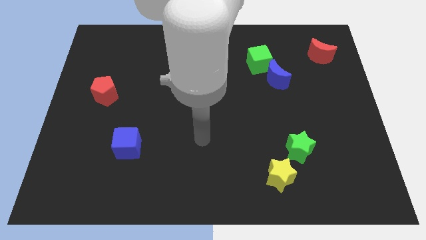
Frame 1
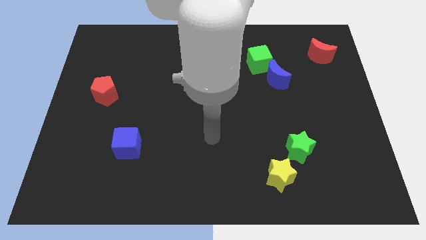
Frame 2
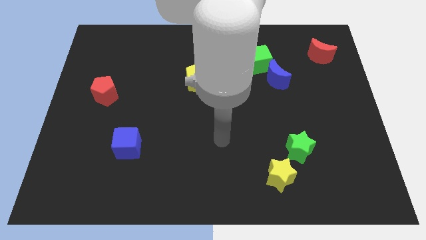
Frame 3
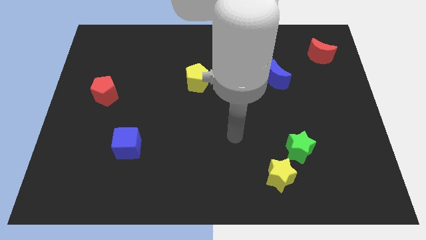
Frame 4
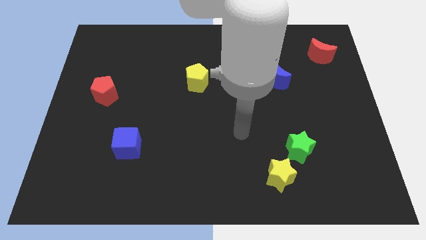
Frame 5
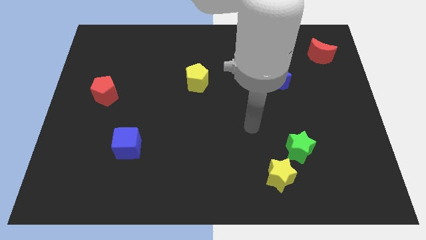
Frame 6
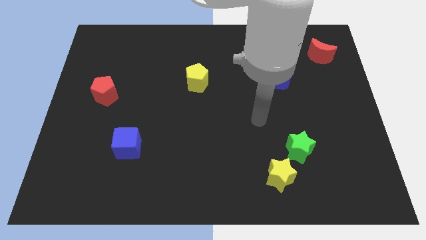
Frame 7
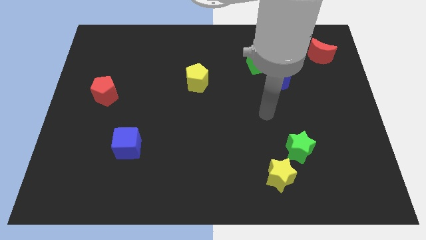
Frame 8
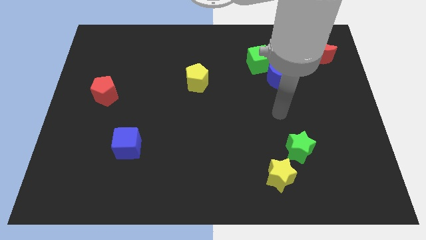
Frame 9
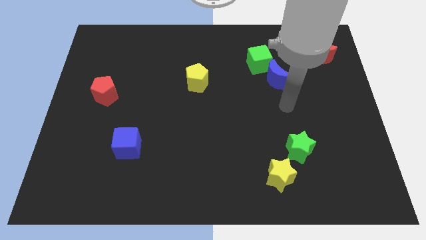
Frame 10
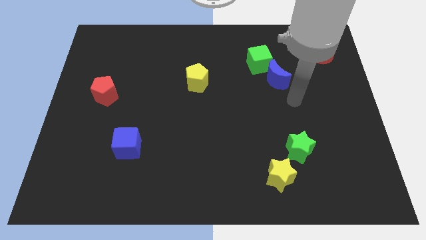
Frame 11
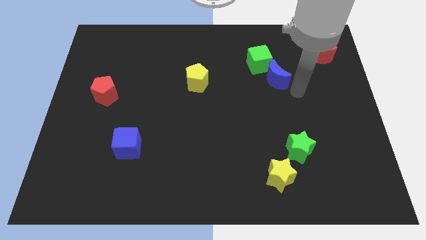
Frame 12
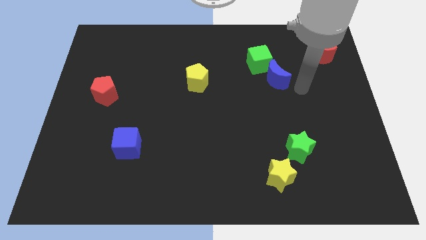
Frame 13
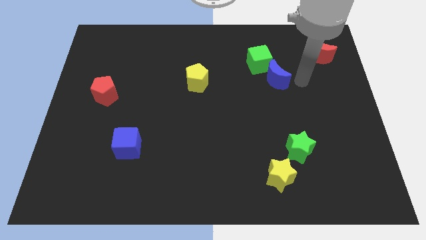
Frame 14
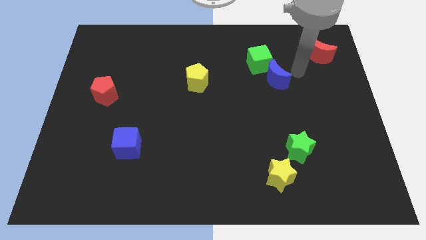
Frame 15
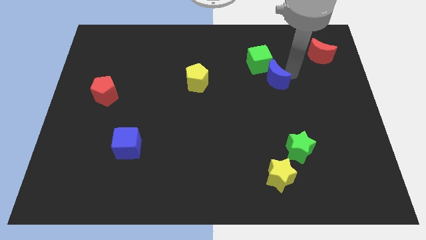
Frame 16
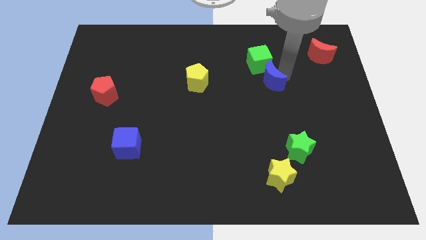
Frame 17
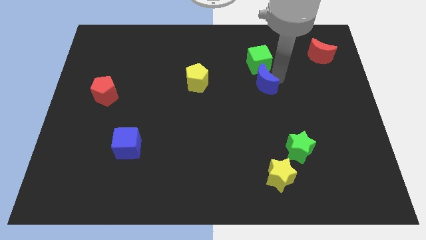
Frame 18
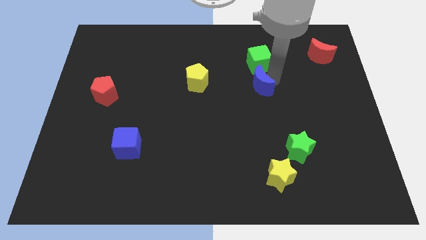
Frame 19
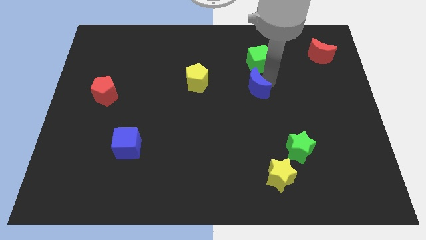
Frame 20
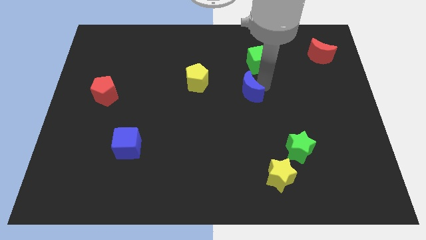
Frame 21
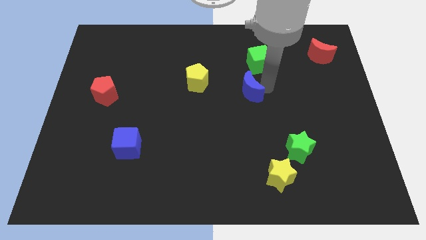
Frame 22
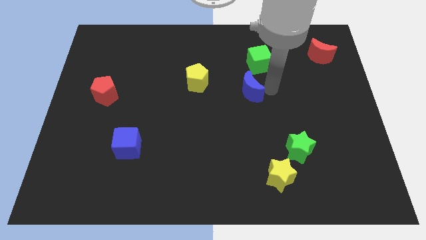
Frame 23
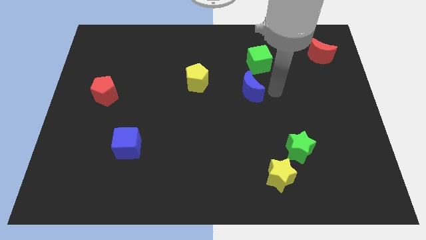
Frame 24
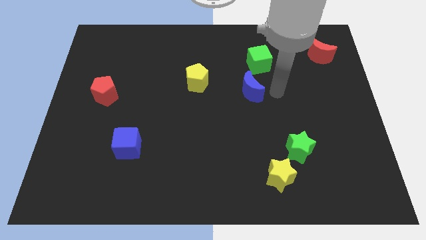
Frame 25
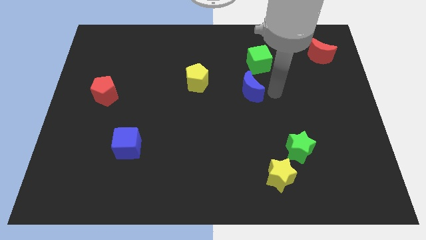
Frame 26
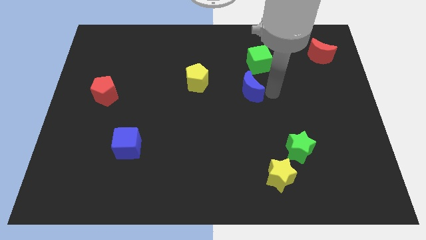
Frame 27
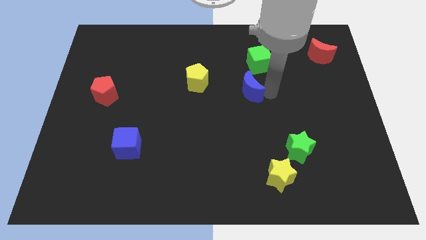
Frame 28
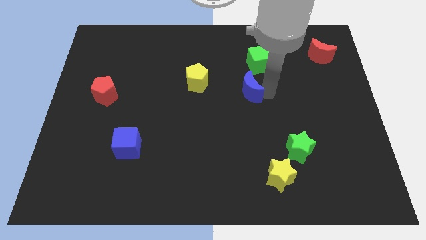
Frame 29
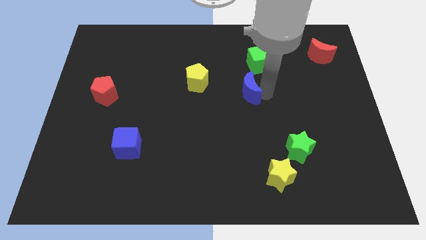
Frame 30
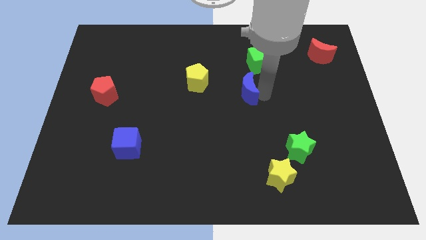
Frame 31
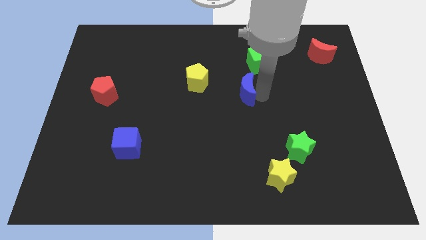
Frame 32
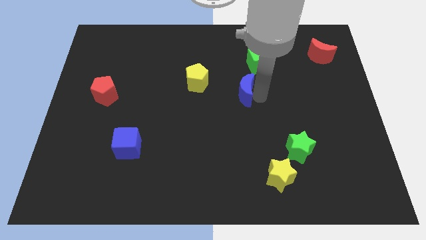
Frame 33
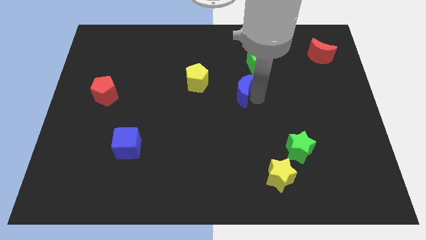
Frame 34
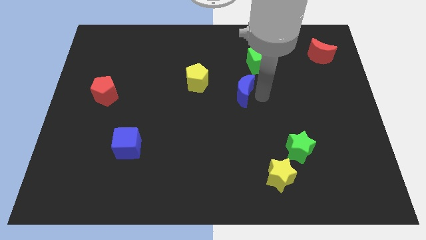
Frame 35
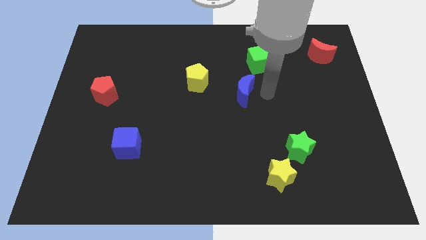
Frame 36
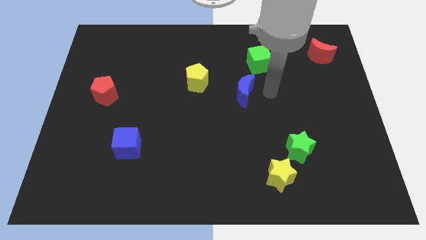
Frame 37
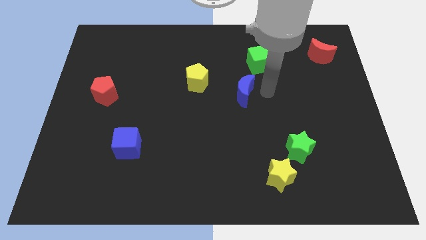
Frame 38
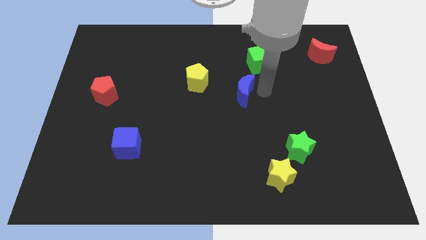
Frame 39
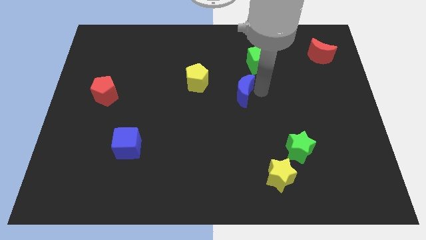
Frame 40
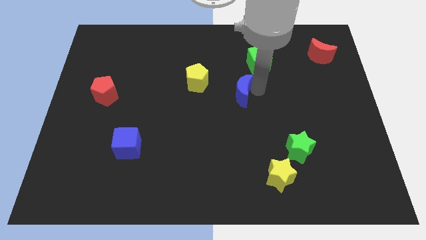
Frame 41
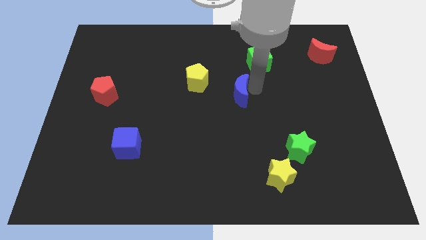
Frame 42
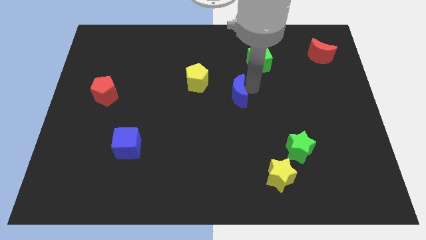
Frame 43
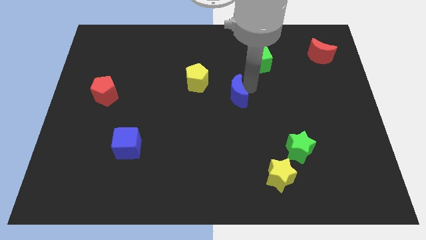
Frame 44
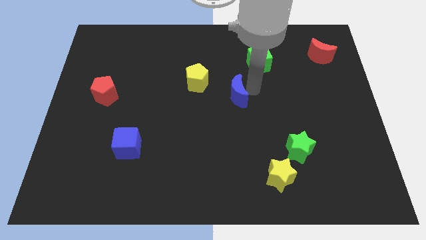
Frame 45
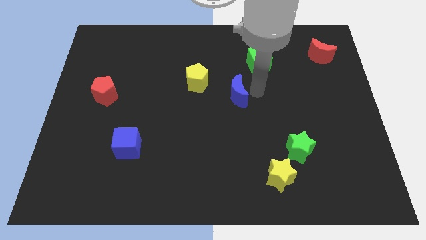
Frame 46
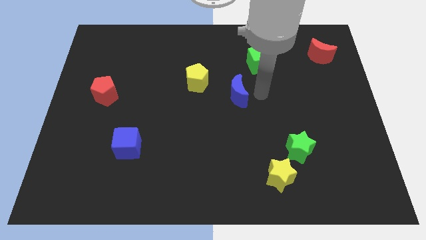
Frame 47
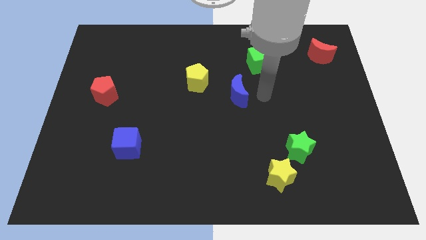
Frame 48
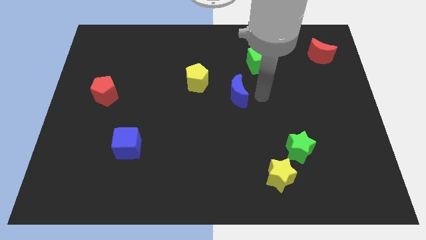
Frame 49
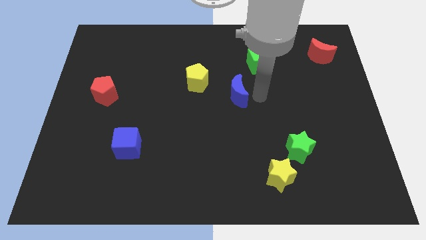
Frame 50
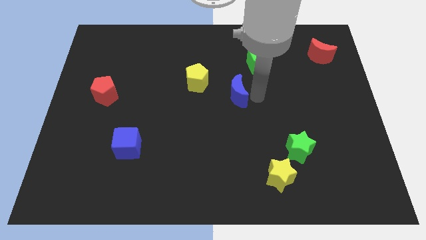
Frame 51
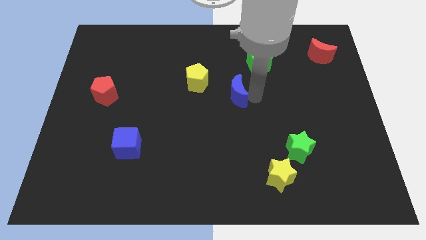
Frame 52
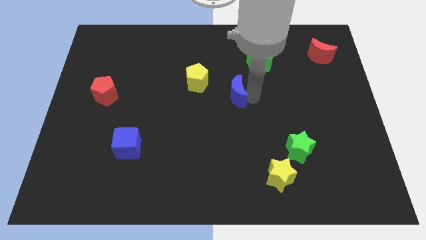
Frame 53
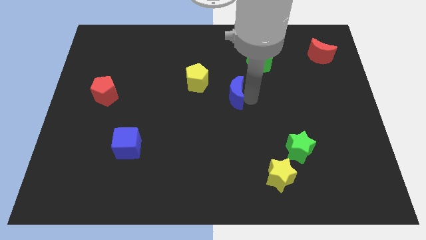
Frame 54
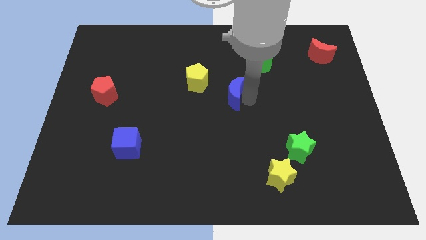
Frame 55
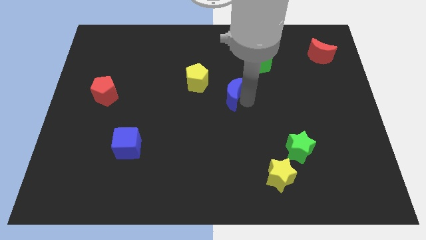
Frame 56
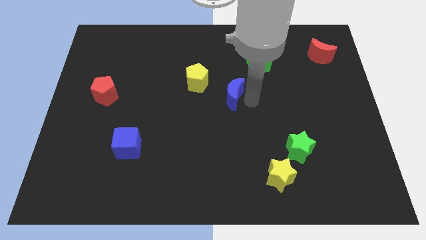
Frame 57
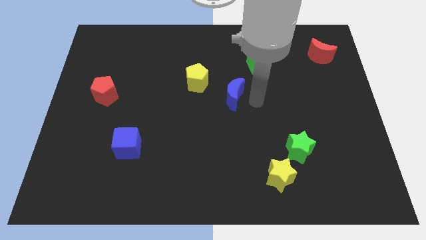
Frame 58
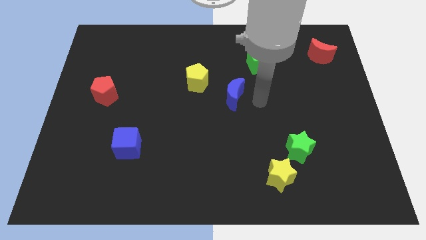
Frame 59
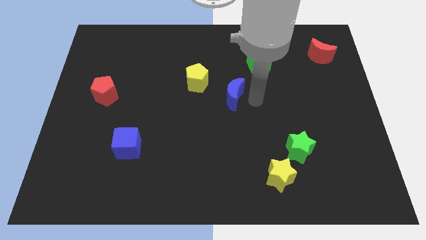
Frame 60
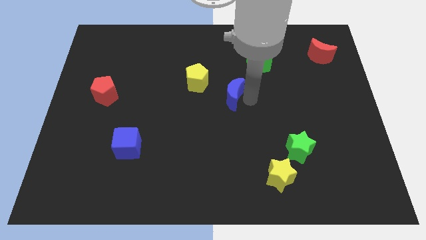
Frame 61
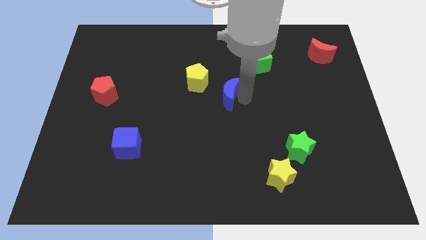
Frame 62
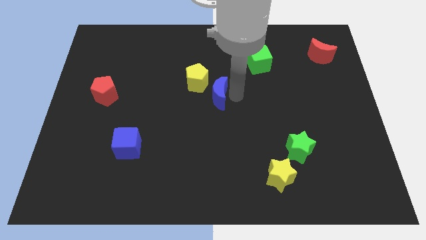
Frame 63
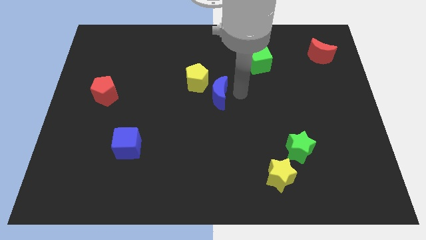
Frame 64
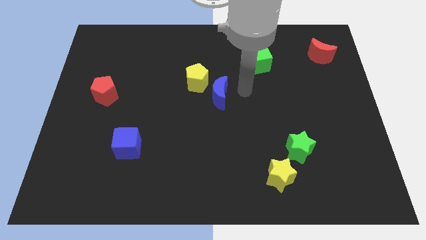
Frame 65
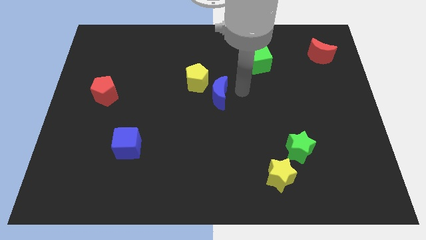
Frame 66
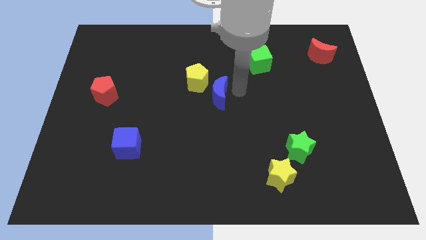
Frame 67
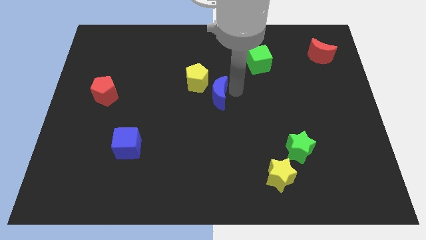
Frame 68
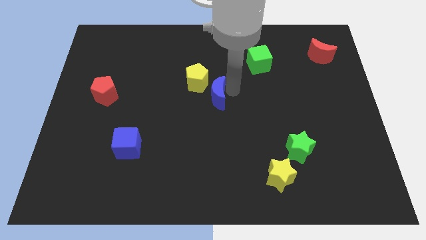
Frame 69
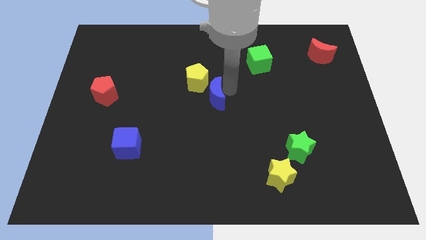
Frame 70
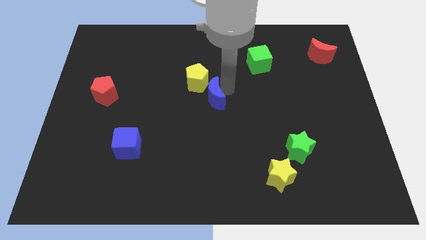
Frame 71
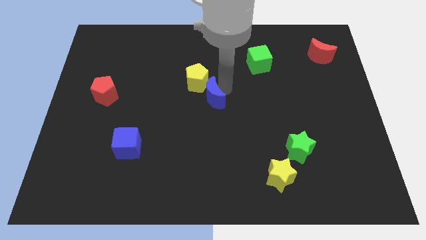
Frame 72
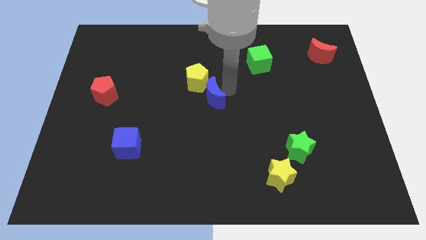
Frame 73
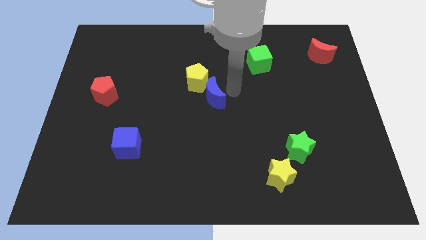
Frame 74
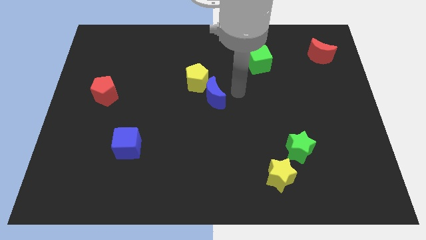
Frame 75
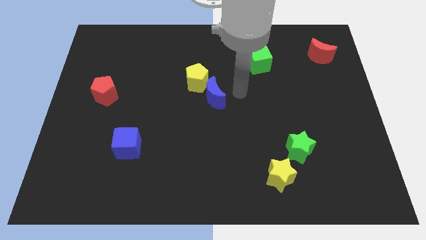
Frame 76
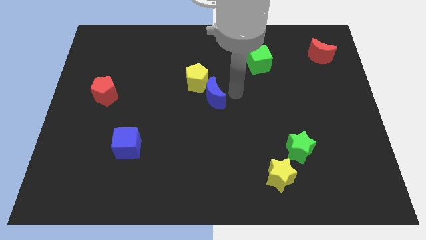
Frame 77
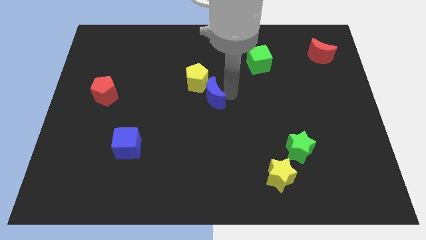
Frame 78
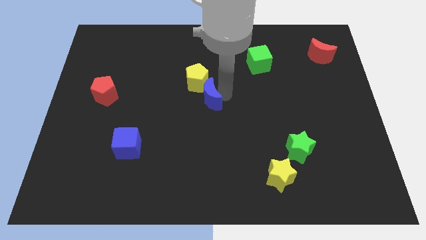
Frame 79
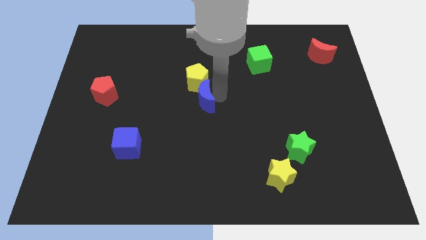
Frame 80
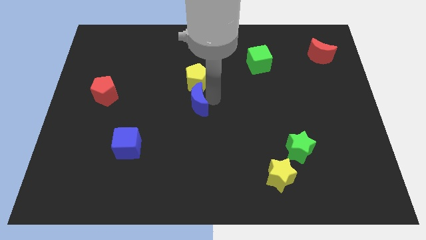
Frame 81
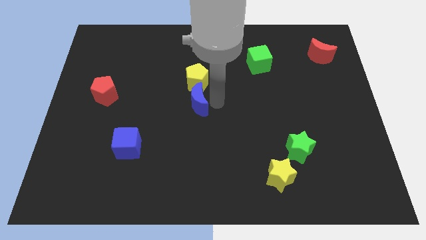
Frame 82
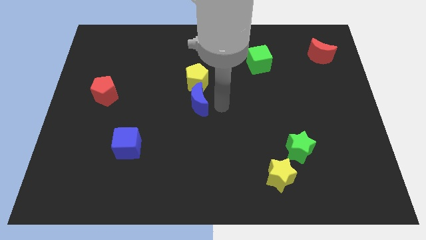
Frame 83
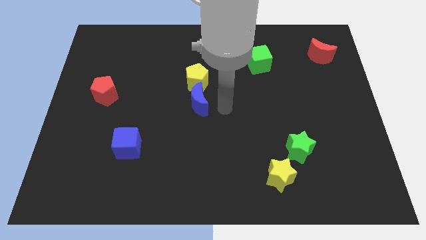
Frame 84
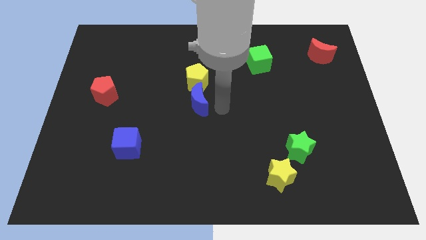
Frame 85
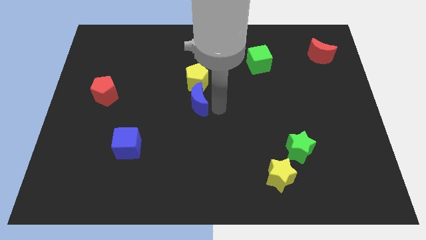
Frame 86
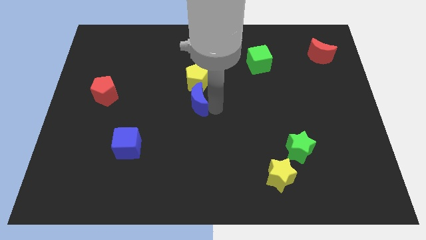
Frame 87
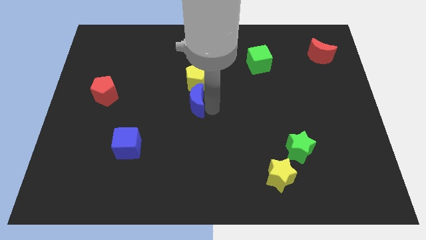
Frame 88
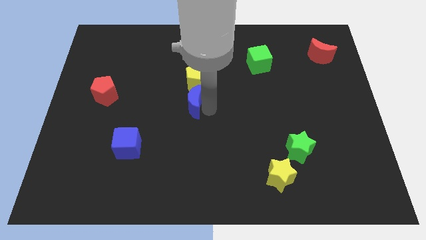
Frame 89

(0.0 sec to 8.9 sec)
move the blue moon to the bottom left side of the yellow pentagon
